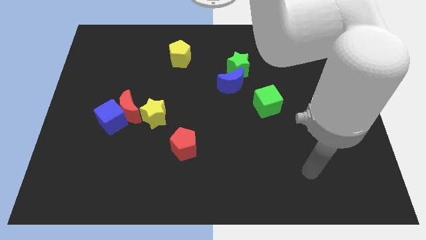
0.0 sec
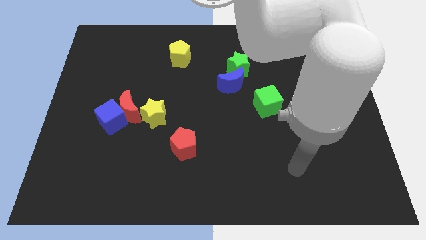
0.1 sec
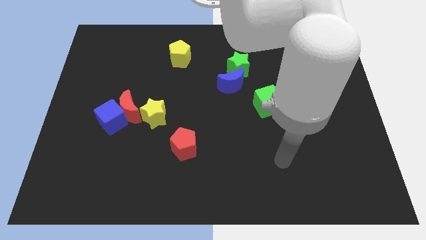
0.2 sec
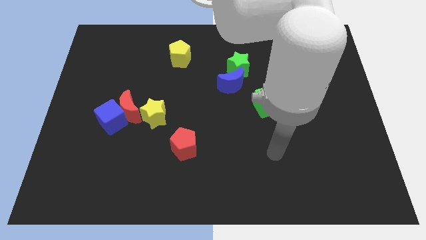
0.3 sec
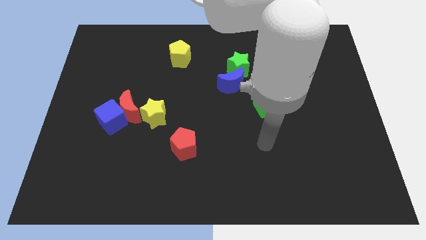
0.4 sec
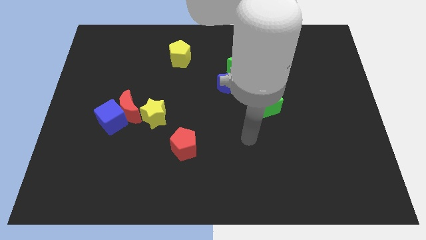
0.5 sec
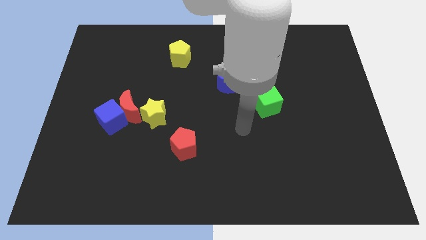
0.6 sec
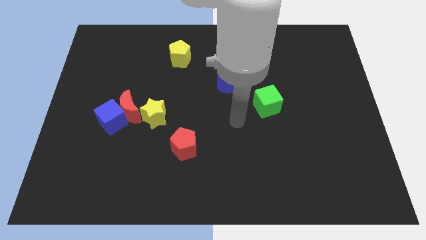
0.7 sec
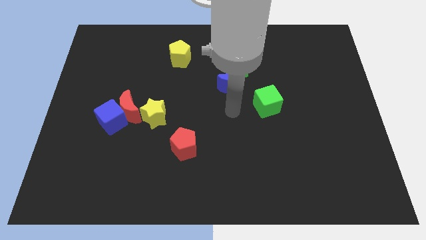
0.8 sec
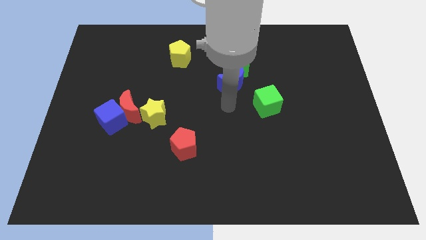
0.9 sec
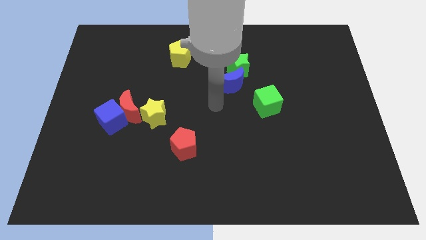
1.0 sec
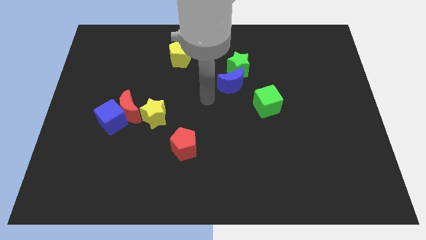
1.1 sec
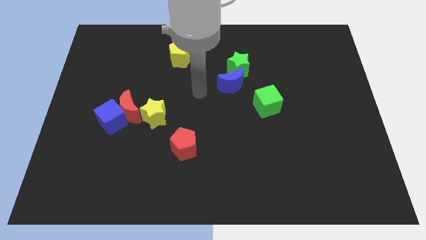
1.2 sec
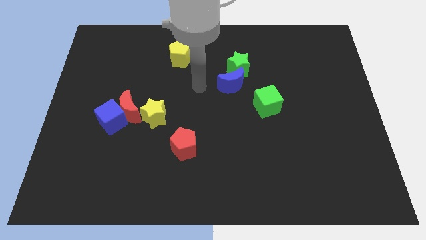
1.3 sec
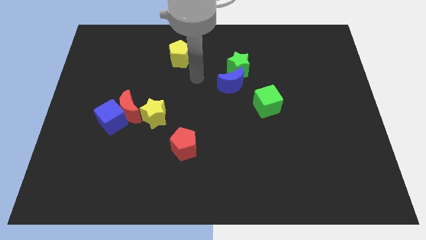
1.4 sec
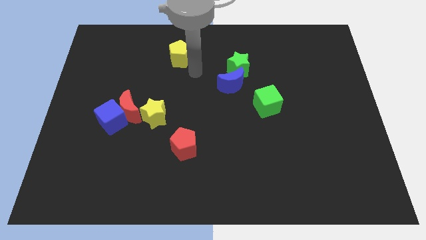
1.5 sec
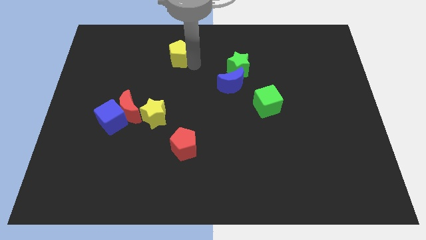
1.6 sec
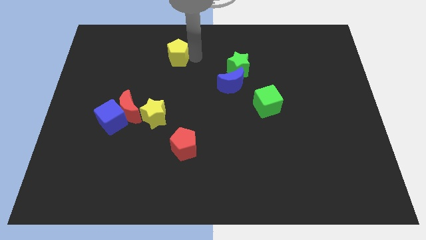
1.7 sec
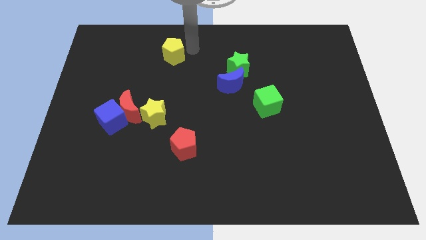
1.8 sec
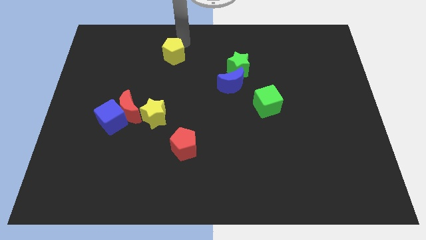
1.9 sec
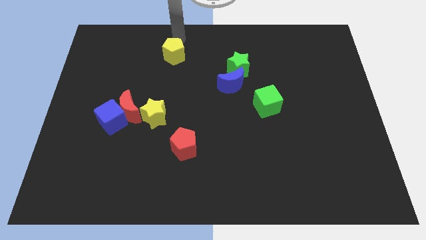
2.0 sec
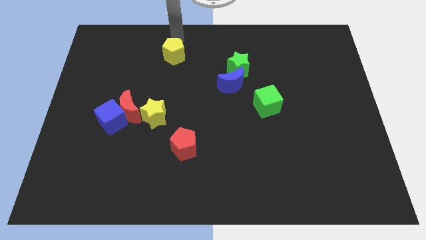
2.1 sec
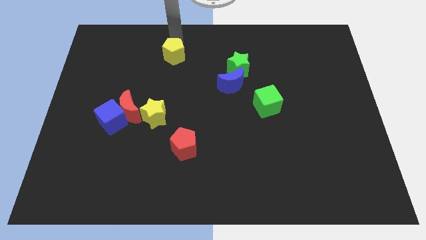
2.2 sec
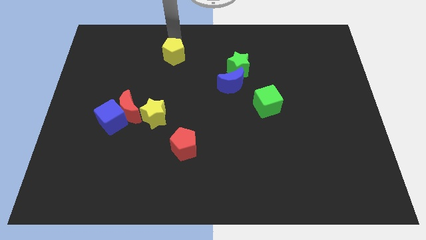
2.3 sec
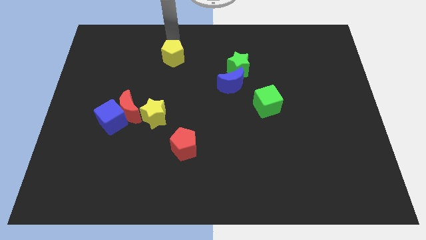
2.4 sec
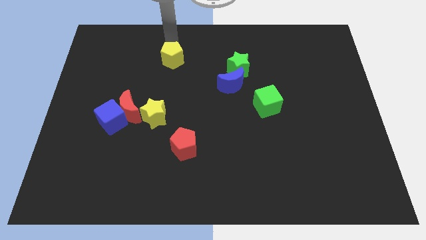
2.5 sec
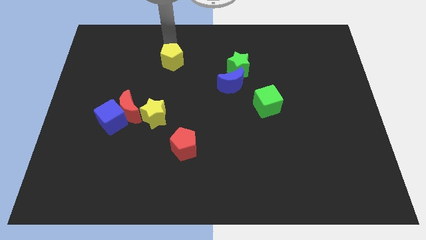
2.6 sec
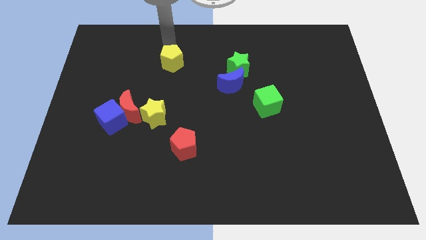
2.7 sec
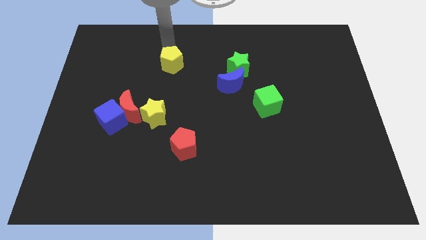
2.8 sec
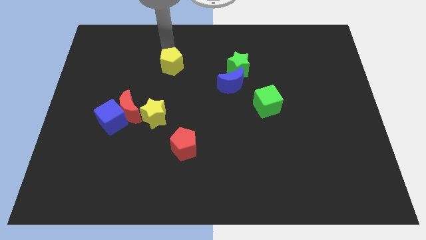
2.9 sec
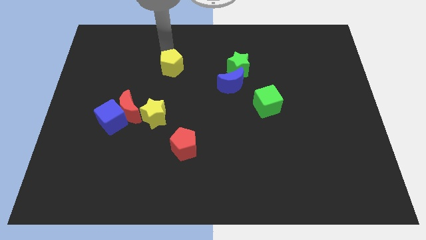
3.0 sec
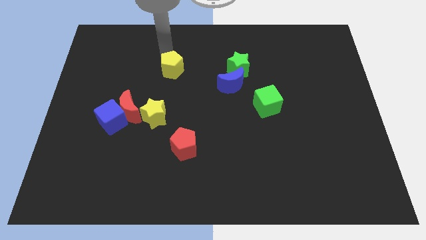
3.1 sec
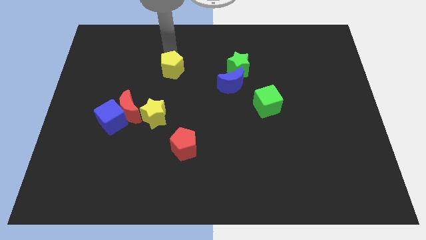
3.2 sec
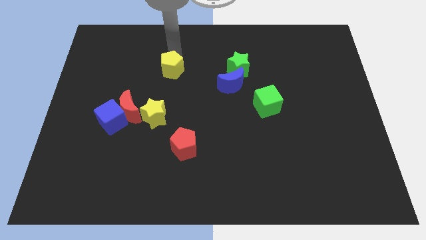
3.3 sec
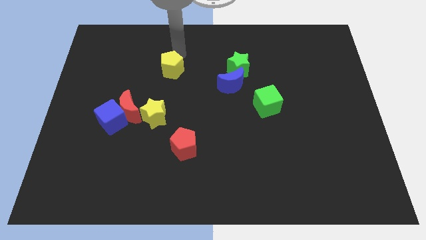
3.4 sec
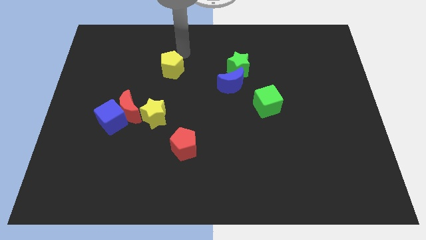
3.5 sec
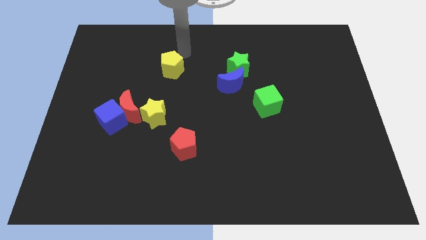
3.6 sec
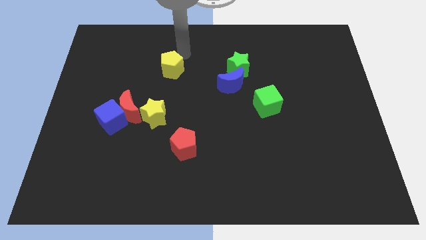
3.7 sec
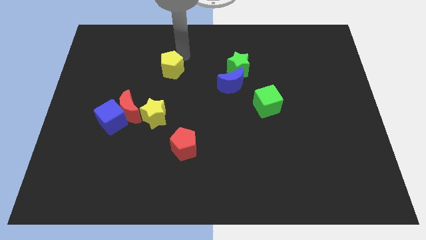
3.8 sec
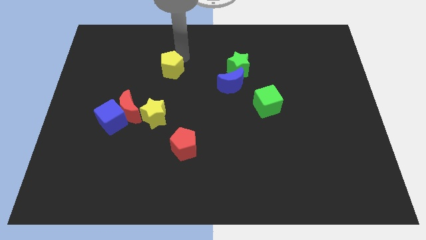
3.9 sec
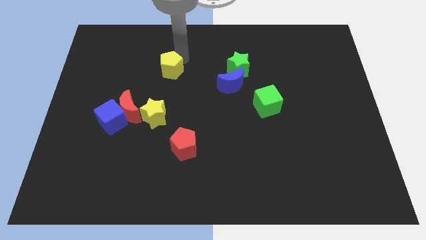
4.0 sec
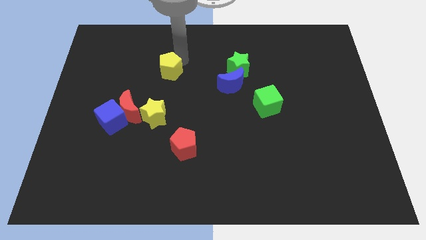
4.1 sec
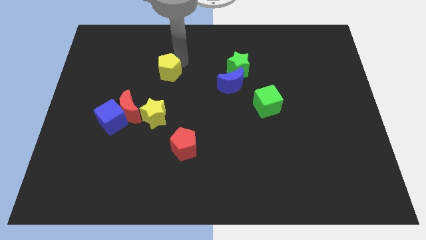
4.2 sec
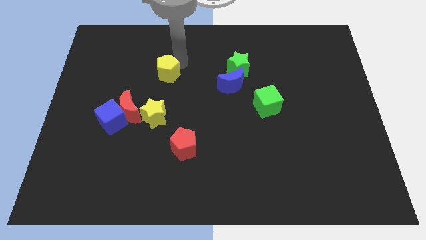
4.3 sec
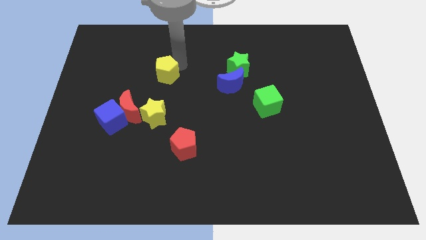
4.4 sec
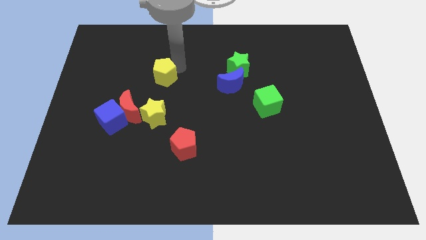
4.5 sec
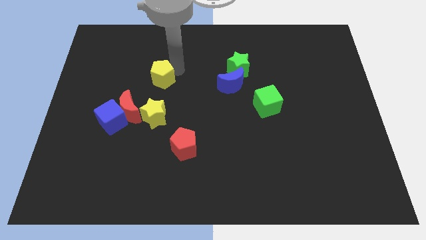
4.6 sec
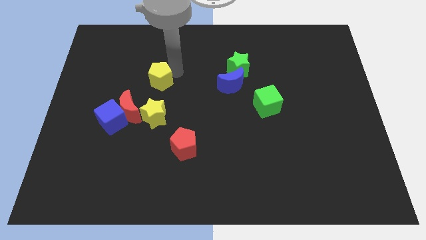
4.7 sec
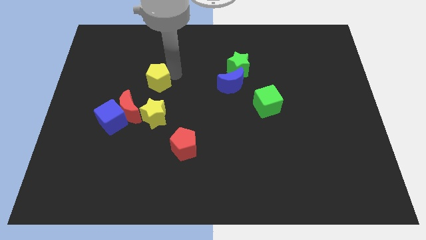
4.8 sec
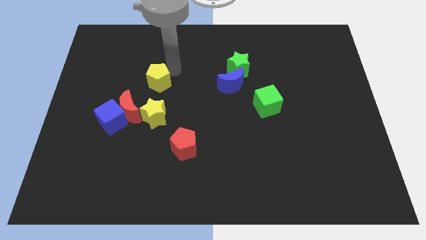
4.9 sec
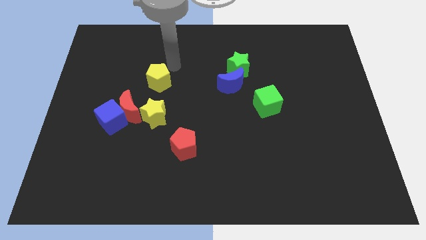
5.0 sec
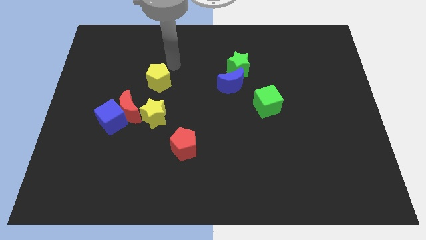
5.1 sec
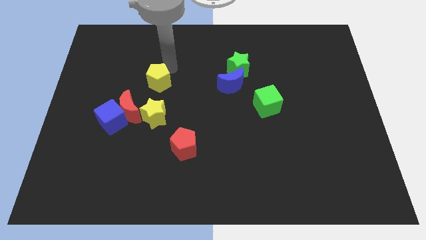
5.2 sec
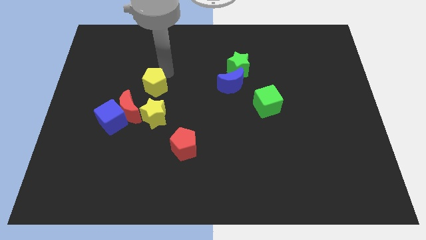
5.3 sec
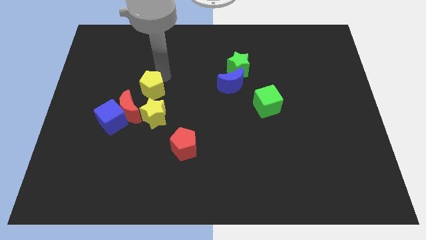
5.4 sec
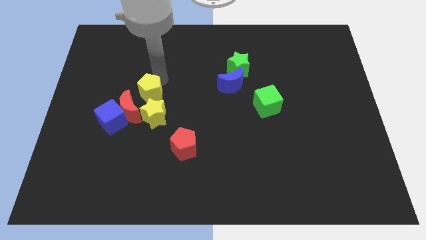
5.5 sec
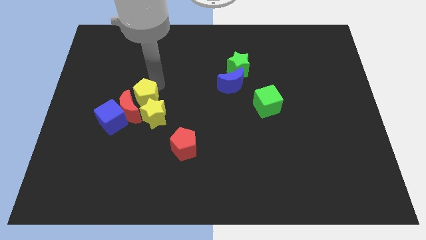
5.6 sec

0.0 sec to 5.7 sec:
push the yellow pentagon close to the red moon

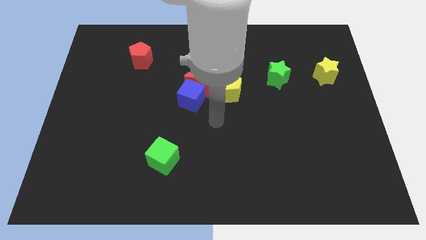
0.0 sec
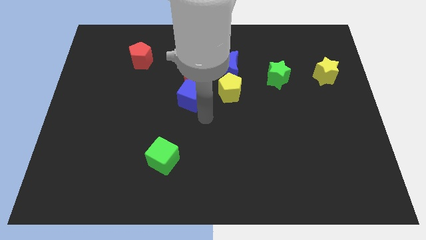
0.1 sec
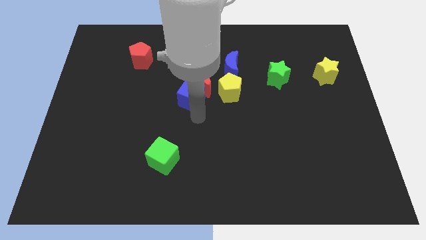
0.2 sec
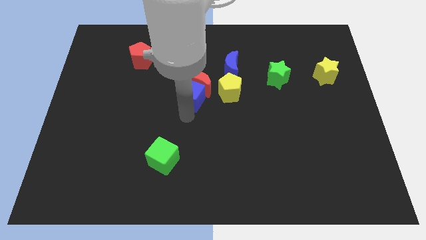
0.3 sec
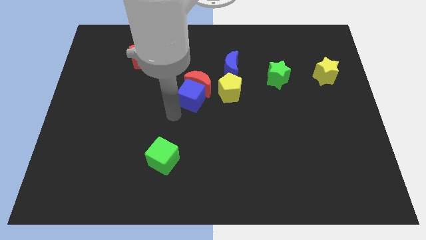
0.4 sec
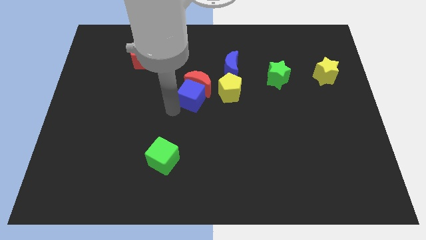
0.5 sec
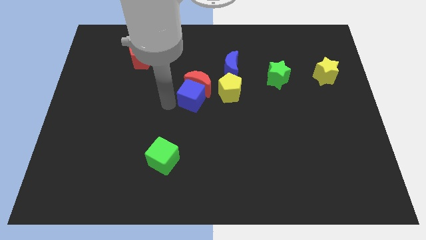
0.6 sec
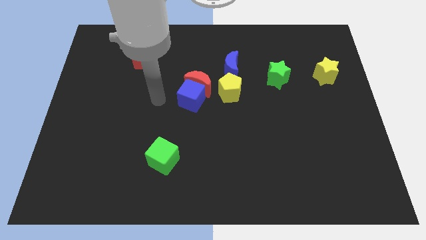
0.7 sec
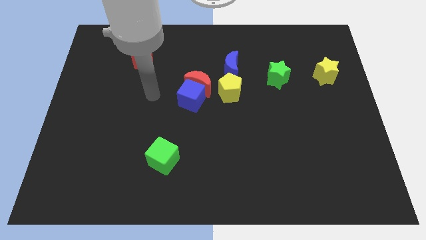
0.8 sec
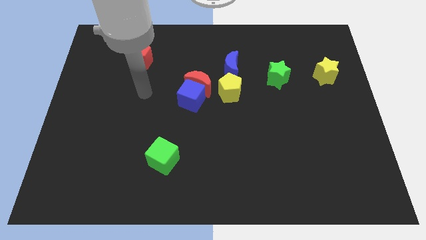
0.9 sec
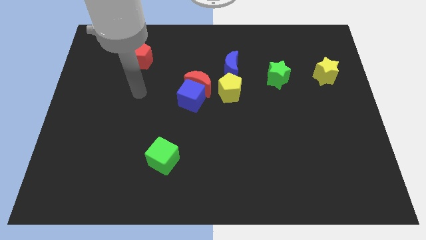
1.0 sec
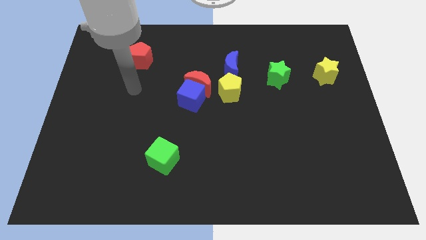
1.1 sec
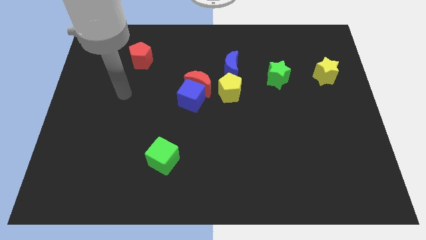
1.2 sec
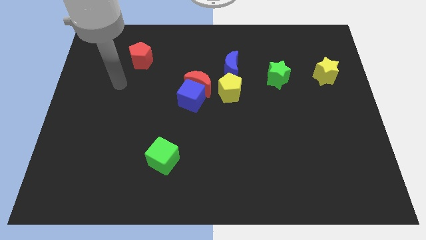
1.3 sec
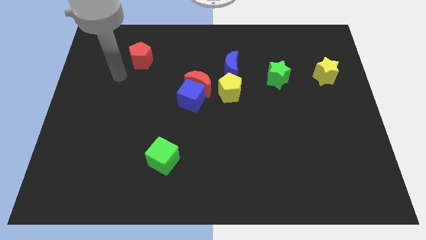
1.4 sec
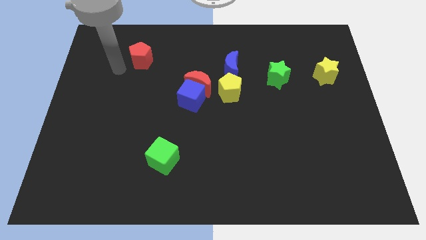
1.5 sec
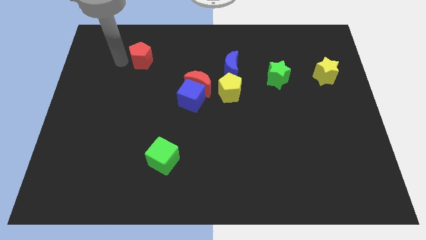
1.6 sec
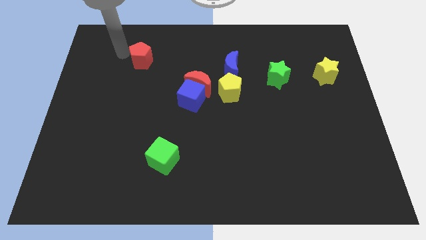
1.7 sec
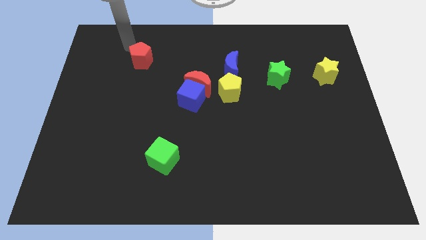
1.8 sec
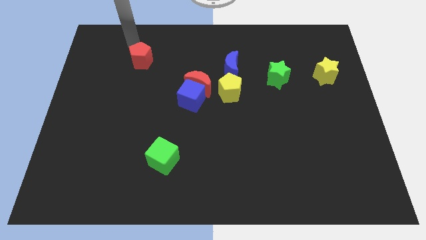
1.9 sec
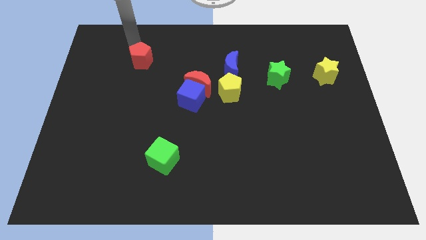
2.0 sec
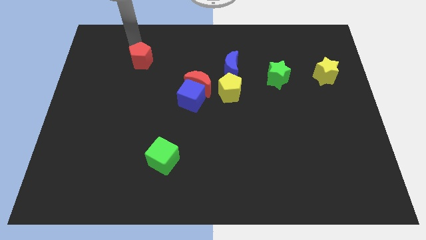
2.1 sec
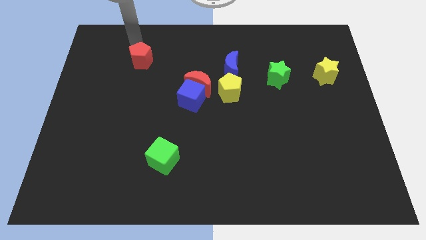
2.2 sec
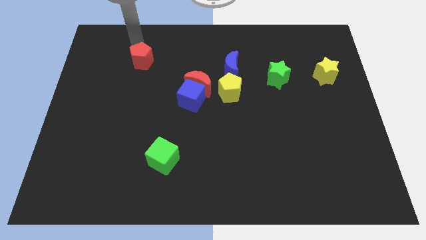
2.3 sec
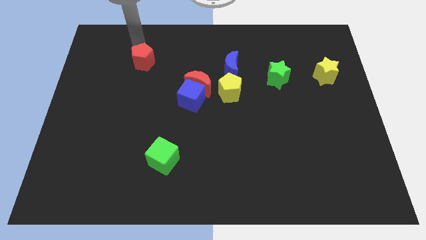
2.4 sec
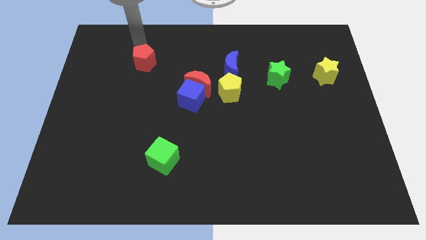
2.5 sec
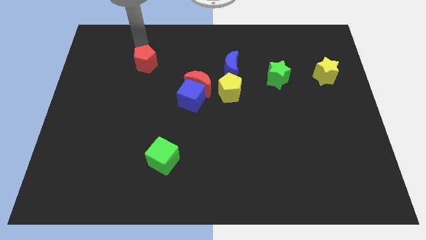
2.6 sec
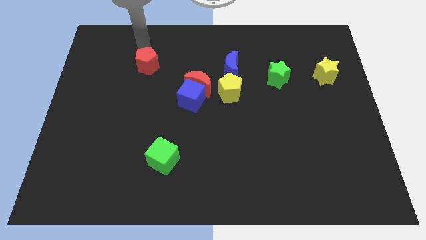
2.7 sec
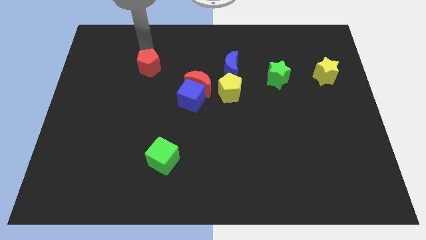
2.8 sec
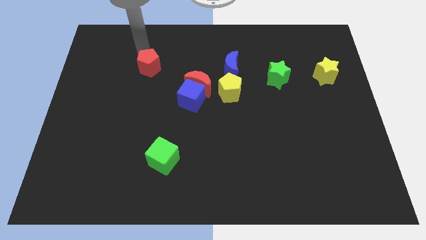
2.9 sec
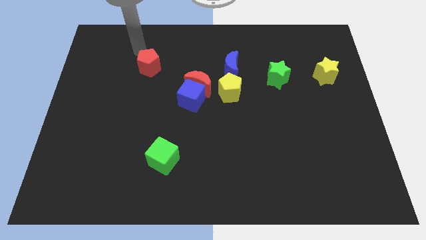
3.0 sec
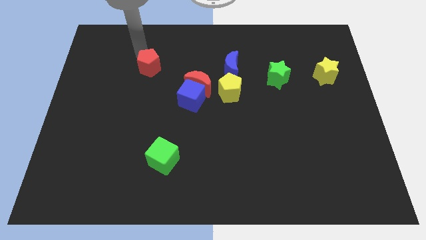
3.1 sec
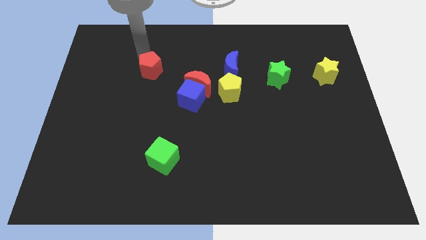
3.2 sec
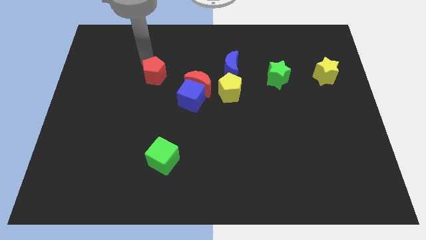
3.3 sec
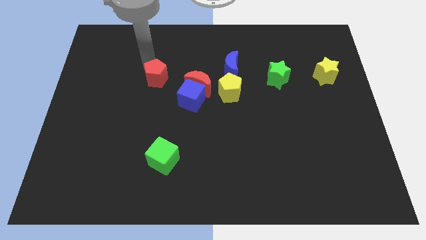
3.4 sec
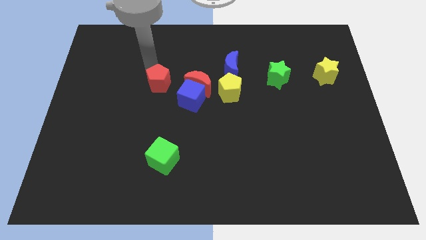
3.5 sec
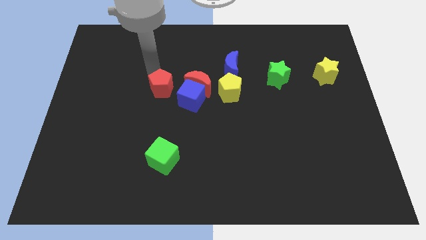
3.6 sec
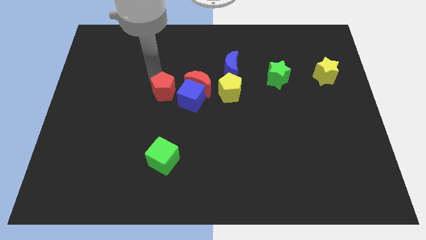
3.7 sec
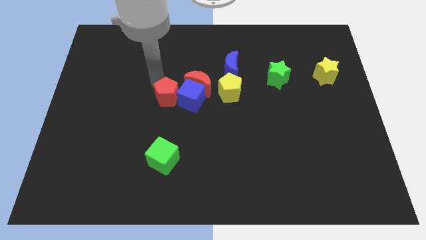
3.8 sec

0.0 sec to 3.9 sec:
move the red pentagon to the blue cube
